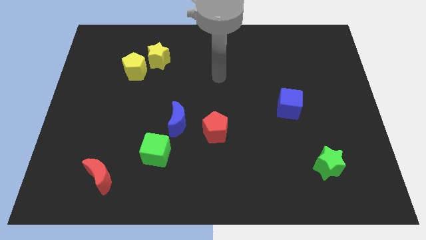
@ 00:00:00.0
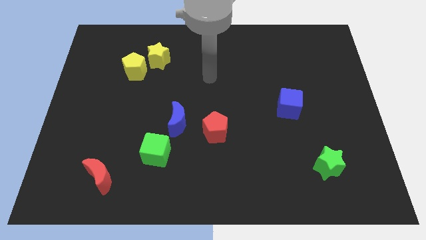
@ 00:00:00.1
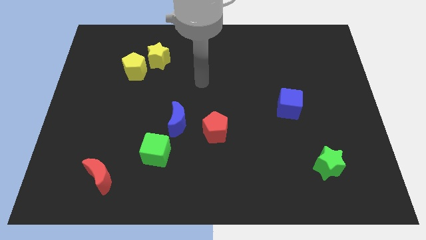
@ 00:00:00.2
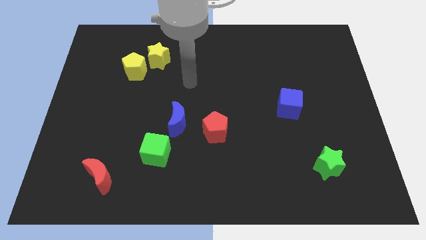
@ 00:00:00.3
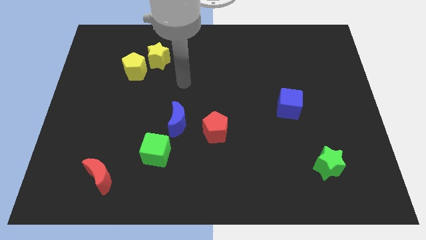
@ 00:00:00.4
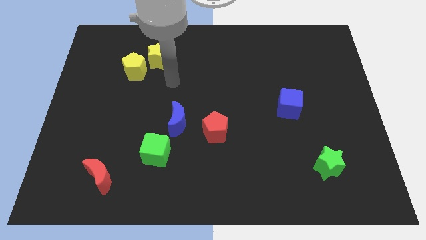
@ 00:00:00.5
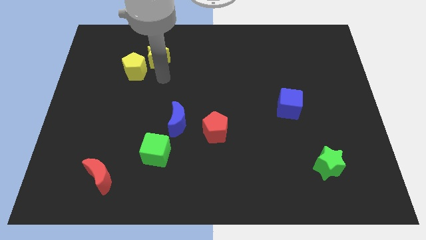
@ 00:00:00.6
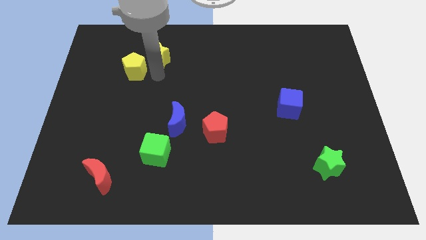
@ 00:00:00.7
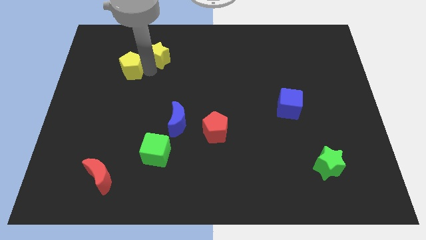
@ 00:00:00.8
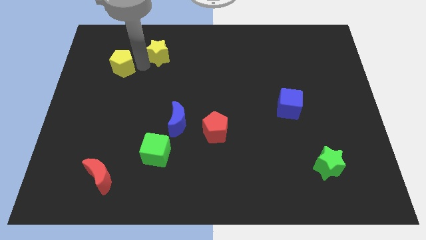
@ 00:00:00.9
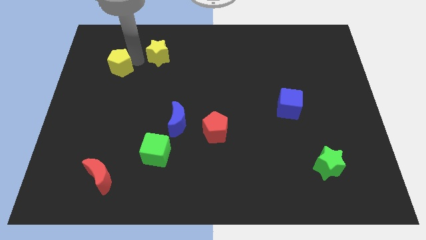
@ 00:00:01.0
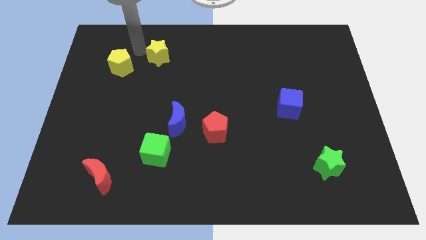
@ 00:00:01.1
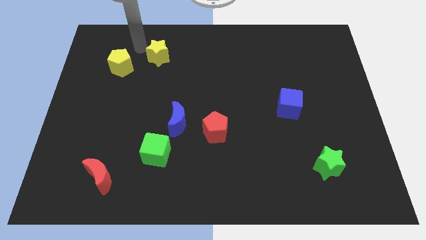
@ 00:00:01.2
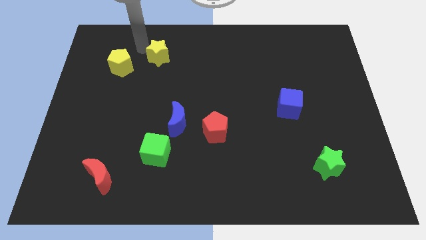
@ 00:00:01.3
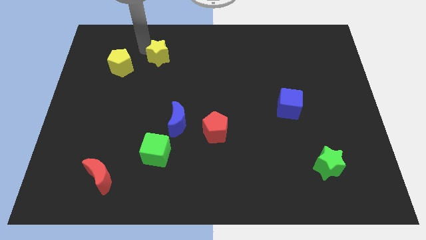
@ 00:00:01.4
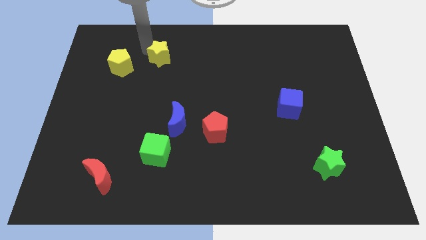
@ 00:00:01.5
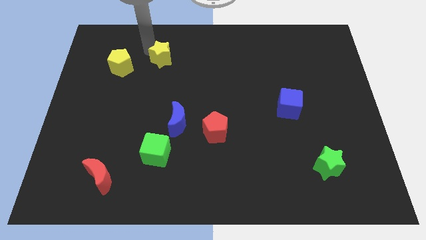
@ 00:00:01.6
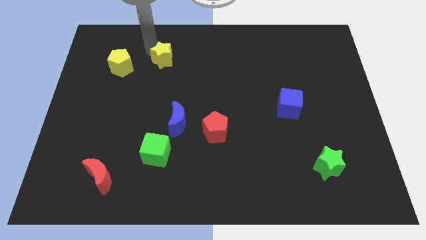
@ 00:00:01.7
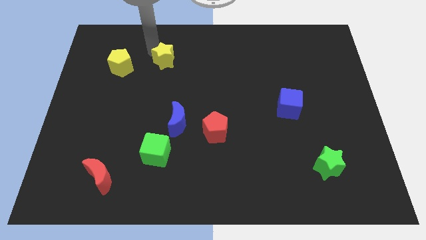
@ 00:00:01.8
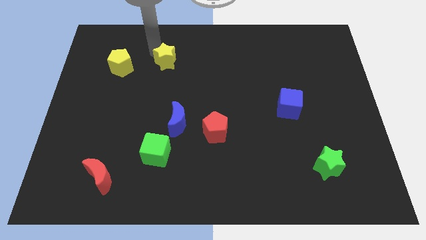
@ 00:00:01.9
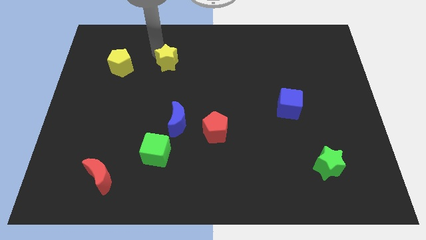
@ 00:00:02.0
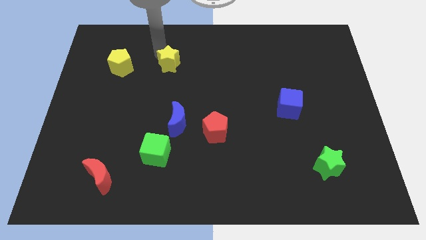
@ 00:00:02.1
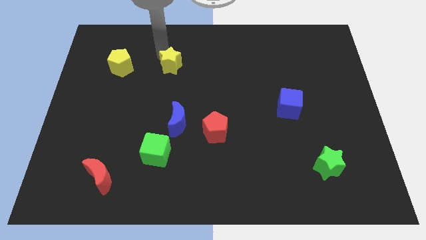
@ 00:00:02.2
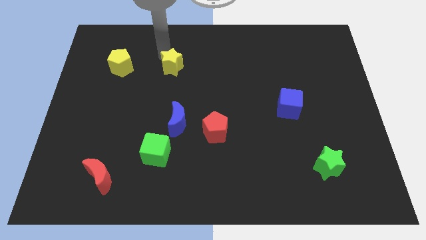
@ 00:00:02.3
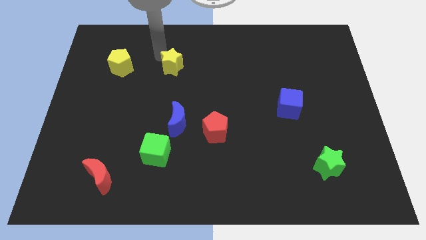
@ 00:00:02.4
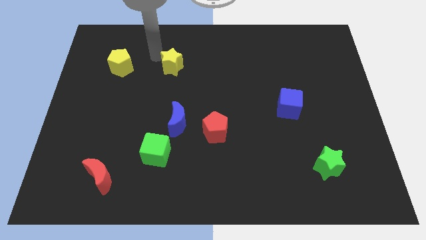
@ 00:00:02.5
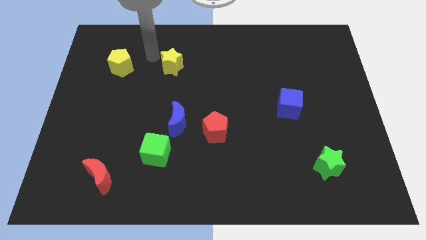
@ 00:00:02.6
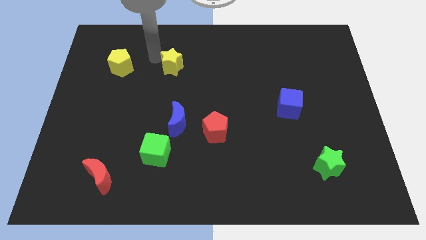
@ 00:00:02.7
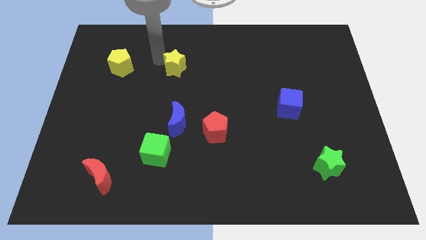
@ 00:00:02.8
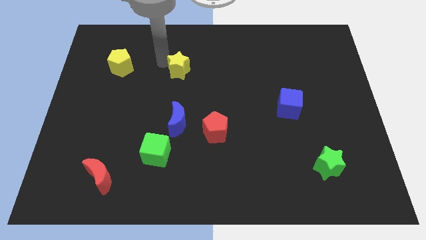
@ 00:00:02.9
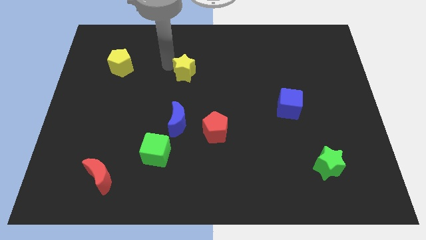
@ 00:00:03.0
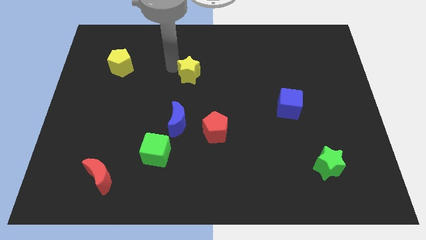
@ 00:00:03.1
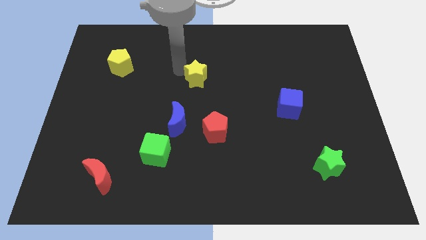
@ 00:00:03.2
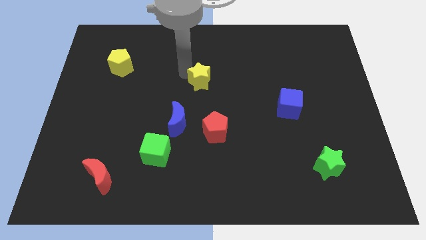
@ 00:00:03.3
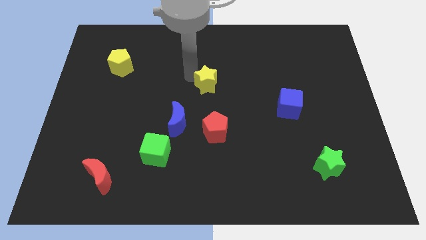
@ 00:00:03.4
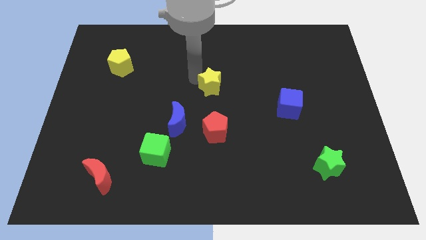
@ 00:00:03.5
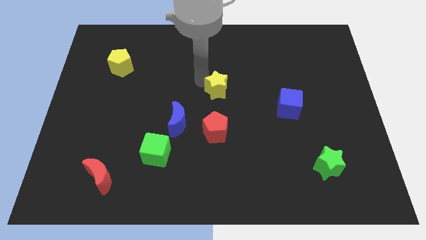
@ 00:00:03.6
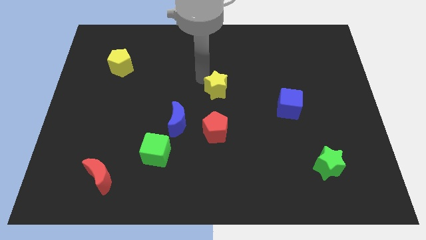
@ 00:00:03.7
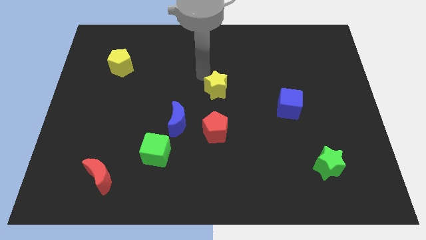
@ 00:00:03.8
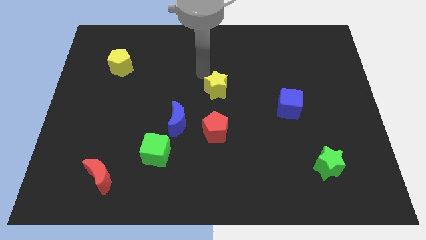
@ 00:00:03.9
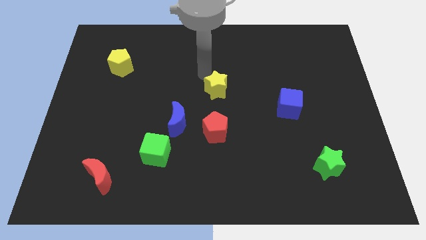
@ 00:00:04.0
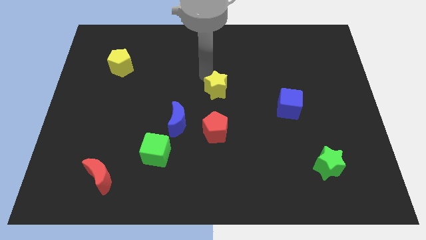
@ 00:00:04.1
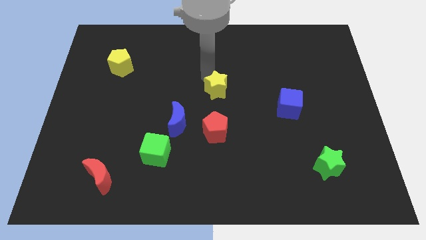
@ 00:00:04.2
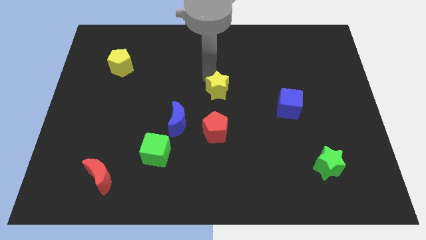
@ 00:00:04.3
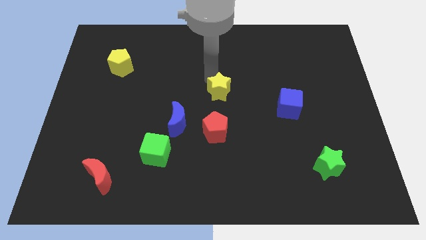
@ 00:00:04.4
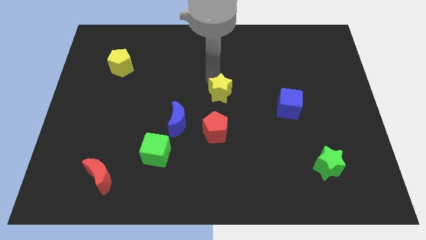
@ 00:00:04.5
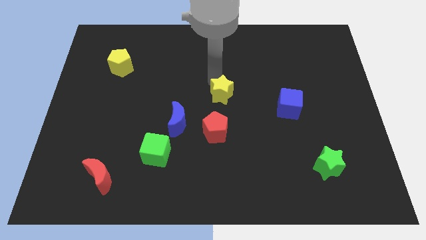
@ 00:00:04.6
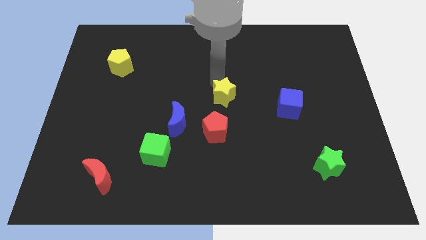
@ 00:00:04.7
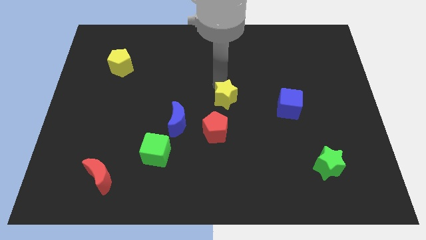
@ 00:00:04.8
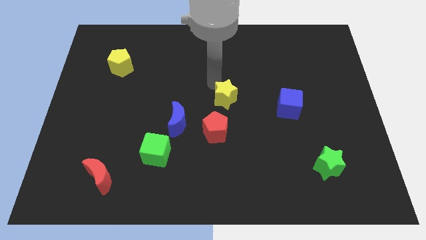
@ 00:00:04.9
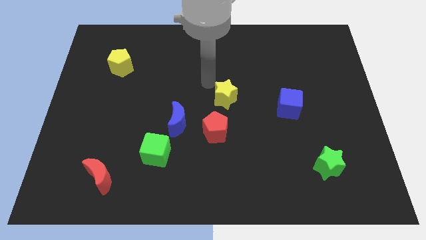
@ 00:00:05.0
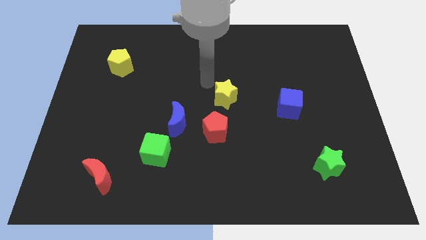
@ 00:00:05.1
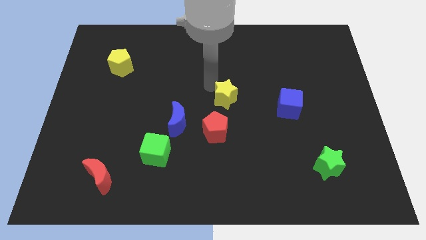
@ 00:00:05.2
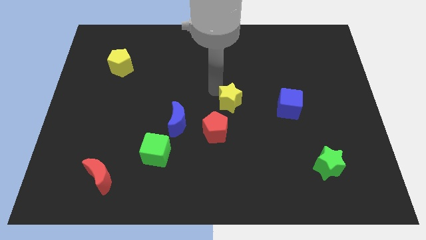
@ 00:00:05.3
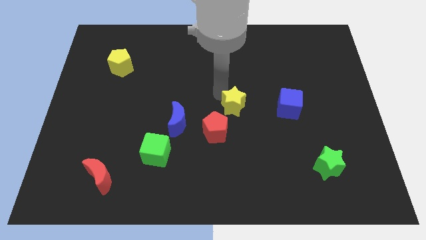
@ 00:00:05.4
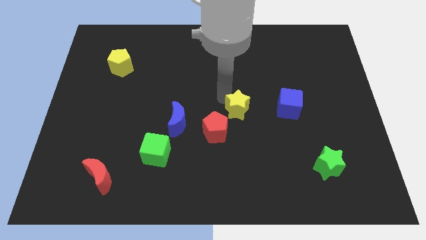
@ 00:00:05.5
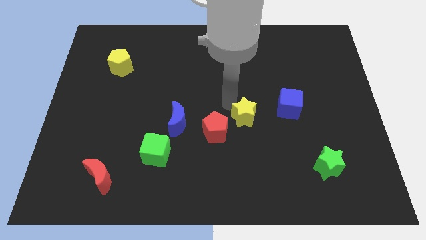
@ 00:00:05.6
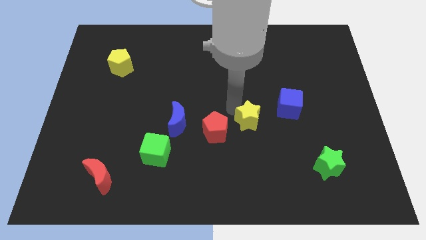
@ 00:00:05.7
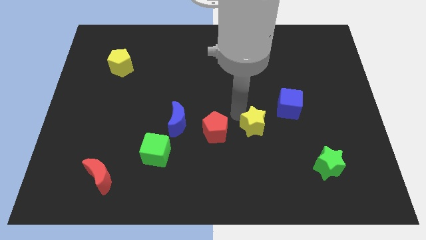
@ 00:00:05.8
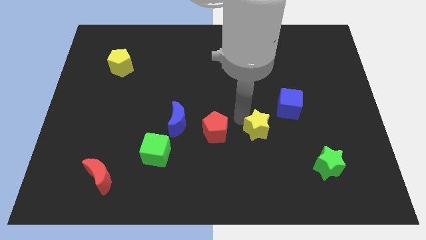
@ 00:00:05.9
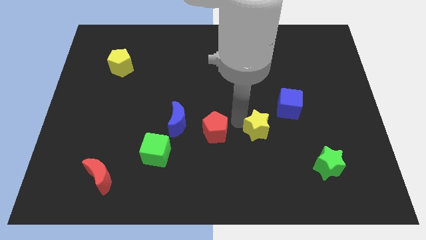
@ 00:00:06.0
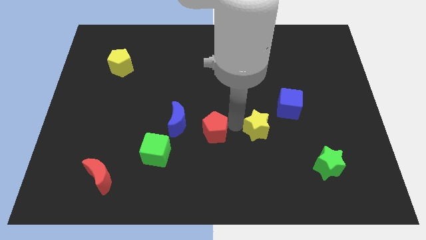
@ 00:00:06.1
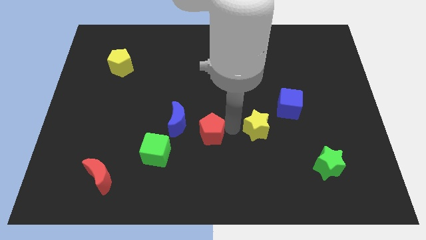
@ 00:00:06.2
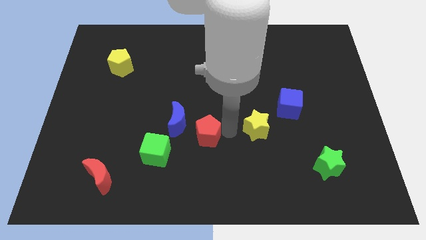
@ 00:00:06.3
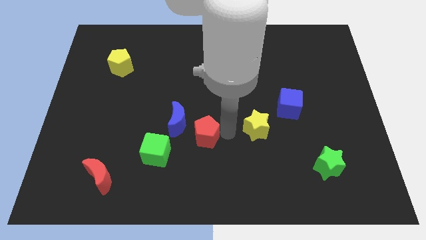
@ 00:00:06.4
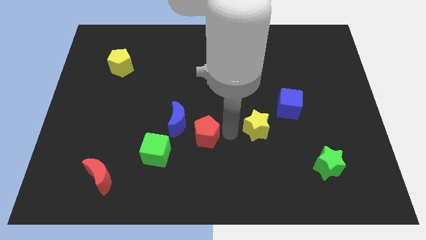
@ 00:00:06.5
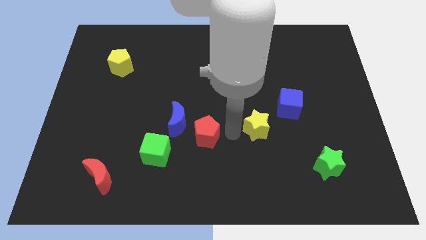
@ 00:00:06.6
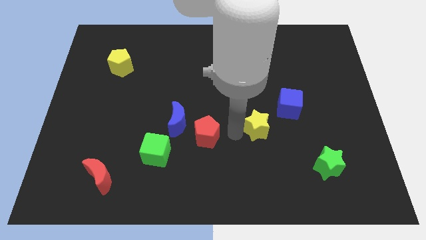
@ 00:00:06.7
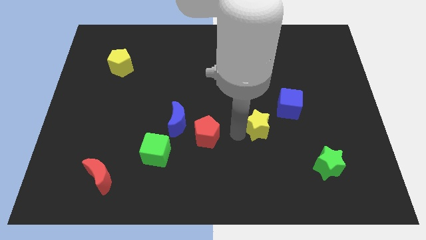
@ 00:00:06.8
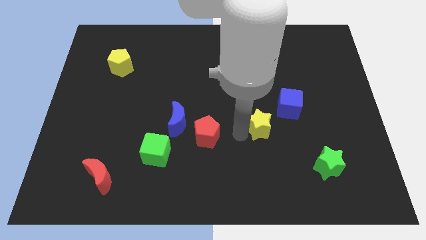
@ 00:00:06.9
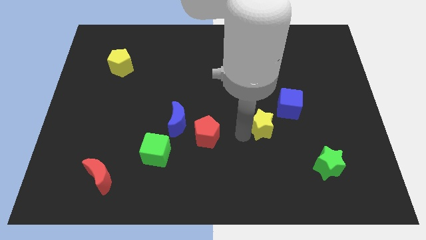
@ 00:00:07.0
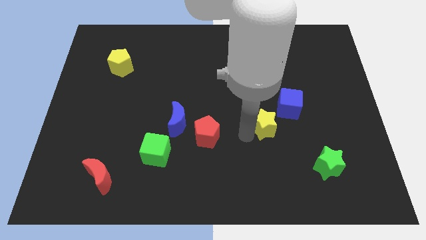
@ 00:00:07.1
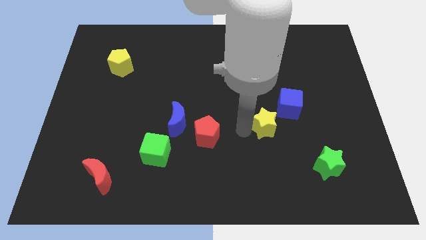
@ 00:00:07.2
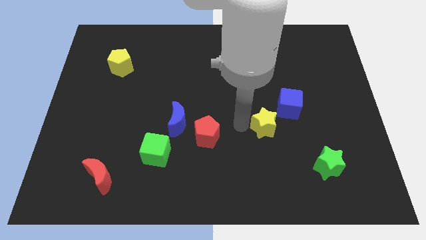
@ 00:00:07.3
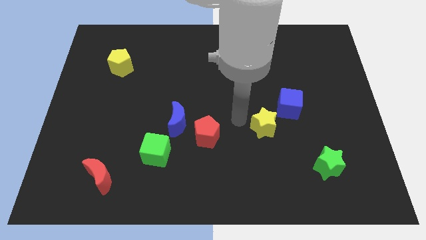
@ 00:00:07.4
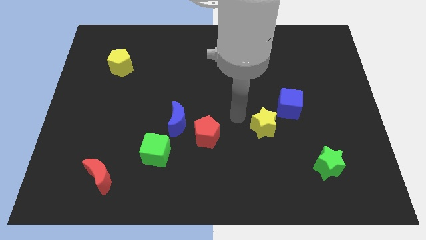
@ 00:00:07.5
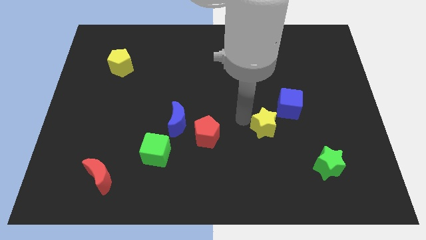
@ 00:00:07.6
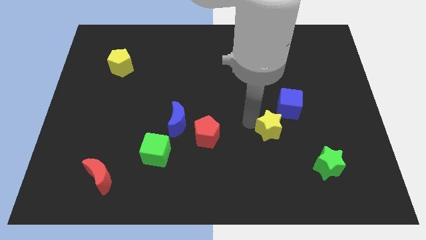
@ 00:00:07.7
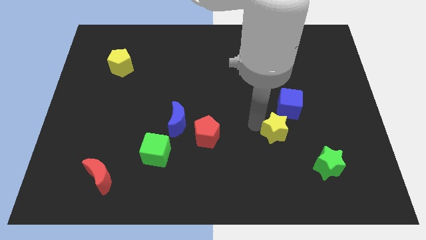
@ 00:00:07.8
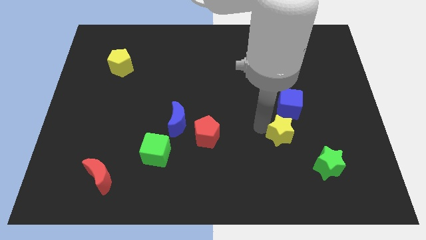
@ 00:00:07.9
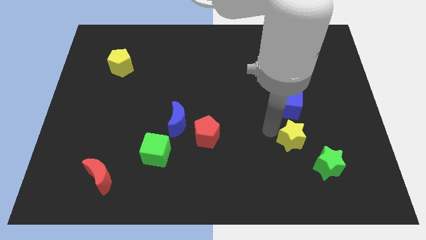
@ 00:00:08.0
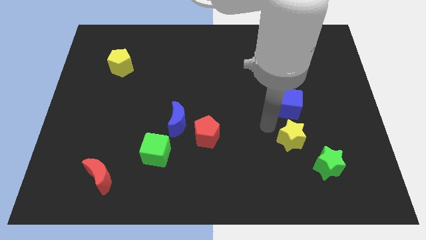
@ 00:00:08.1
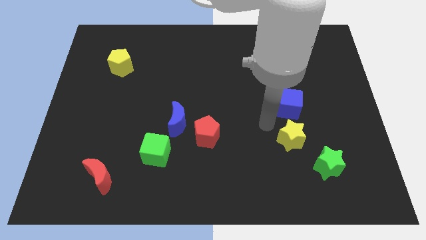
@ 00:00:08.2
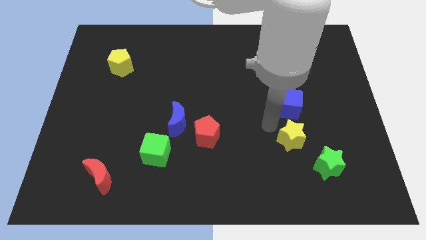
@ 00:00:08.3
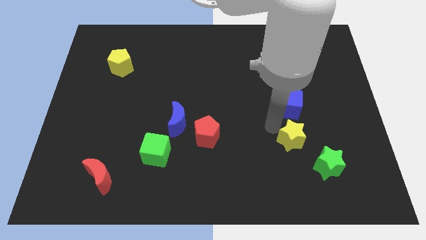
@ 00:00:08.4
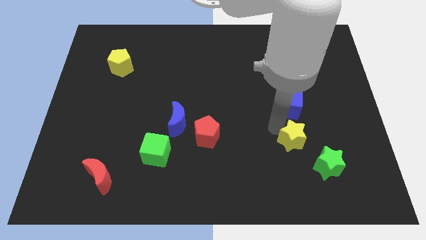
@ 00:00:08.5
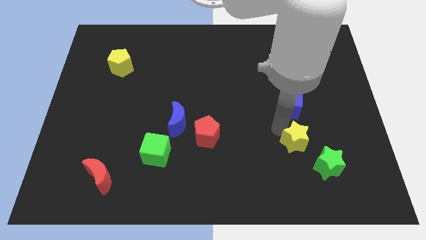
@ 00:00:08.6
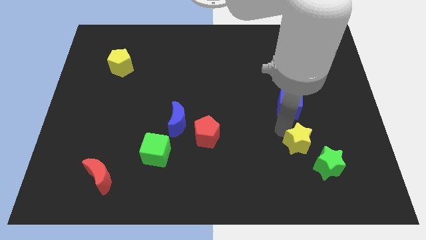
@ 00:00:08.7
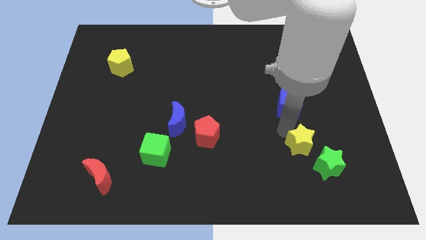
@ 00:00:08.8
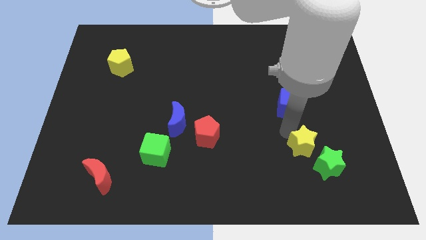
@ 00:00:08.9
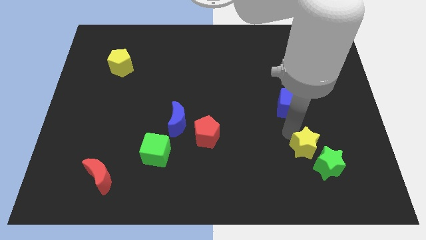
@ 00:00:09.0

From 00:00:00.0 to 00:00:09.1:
put the yellow star close to the green star
